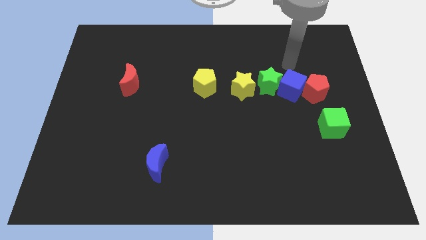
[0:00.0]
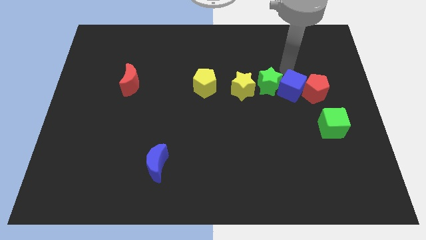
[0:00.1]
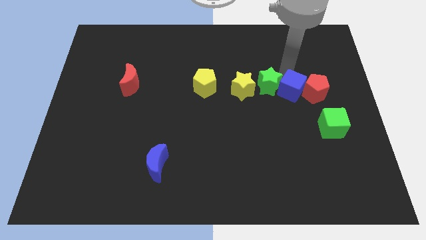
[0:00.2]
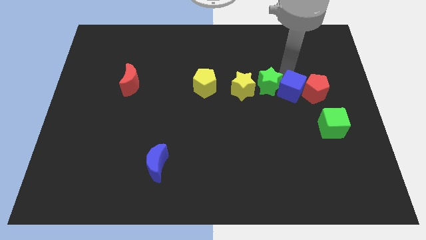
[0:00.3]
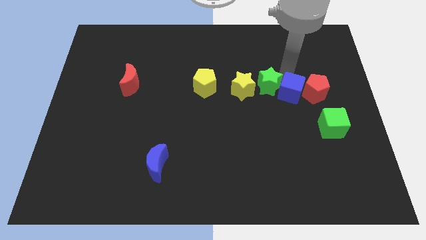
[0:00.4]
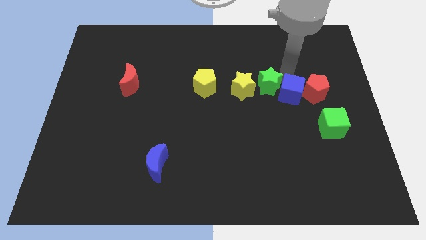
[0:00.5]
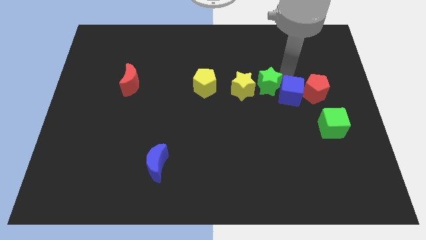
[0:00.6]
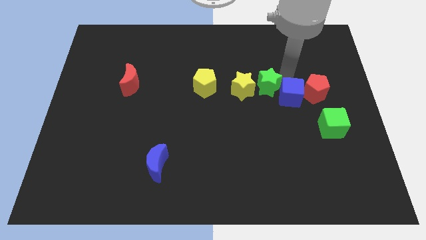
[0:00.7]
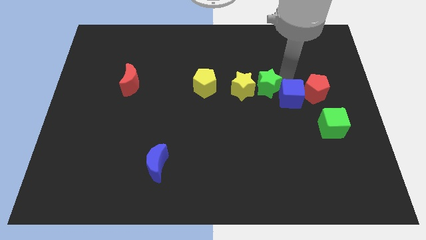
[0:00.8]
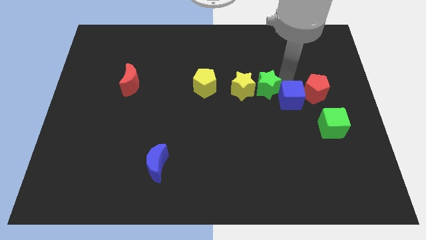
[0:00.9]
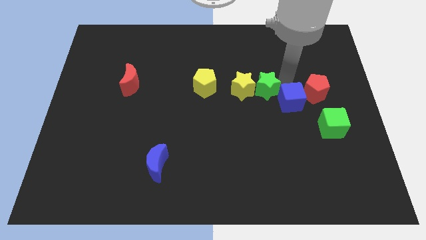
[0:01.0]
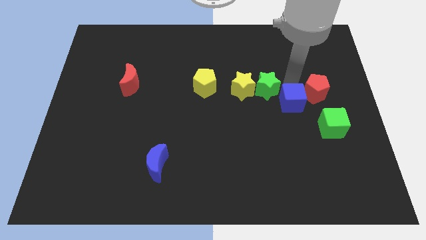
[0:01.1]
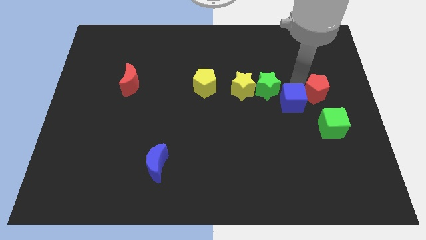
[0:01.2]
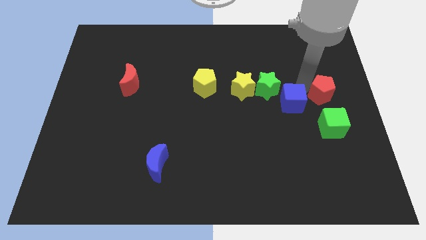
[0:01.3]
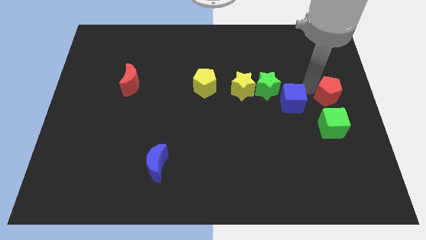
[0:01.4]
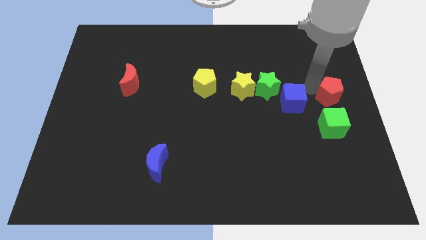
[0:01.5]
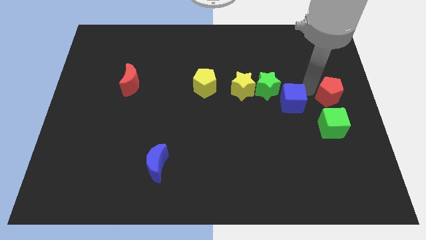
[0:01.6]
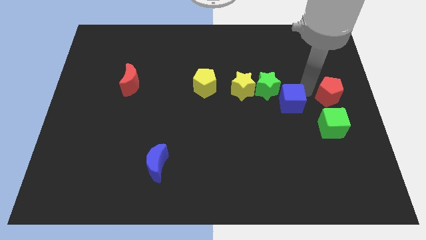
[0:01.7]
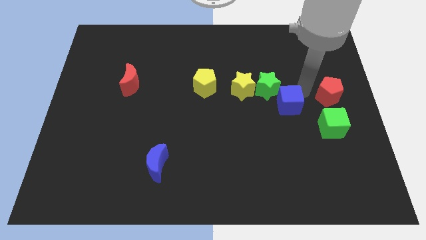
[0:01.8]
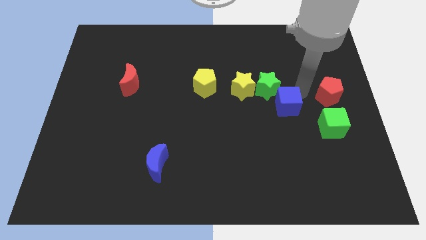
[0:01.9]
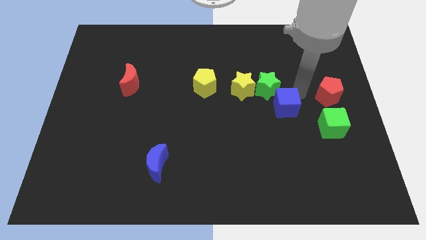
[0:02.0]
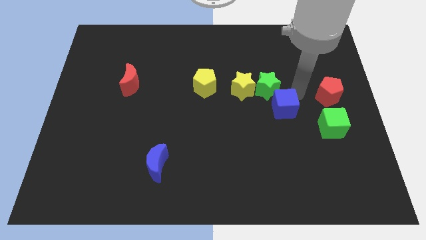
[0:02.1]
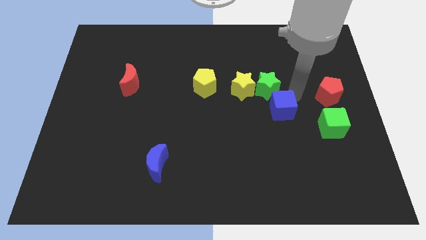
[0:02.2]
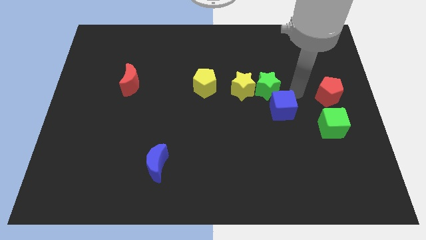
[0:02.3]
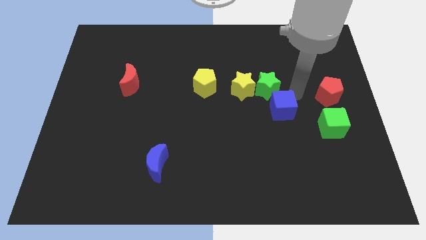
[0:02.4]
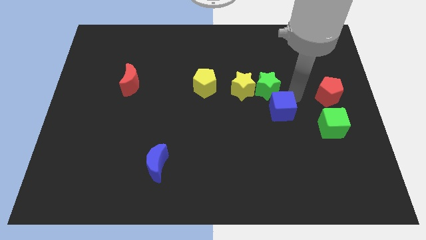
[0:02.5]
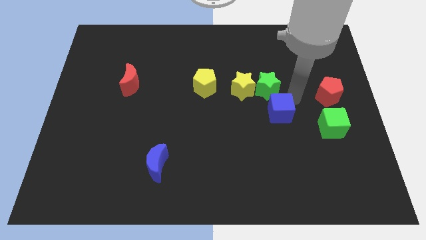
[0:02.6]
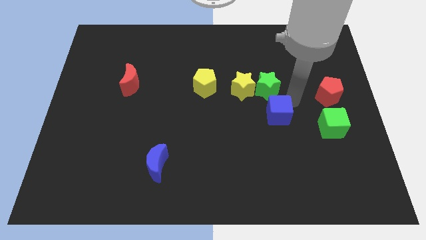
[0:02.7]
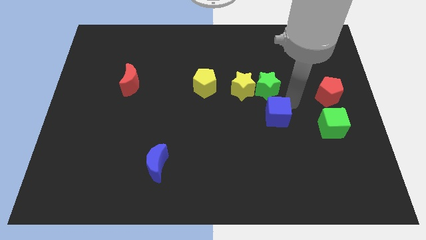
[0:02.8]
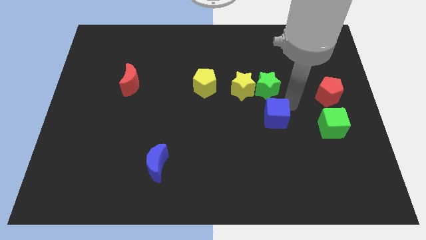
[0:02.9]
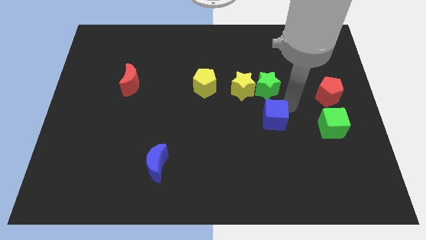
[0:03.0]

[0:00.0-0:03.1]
move the blue cube away from the green star and red pentagon

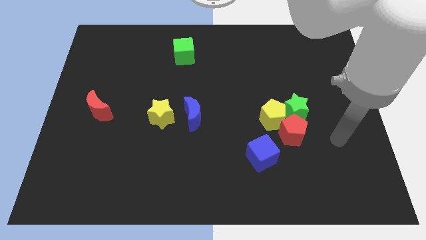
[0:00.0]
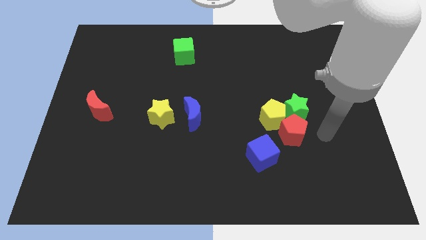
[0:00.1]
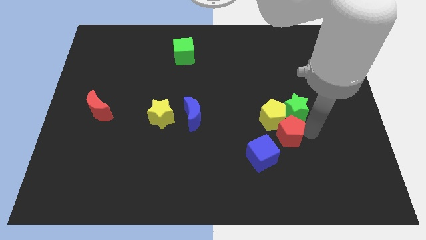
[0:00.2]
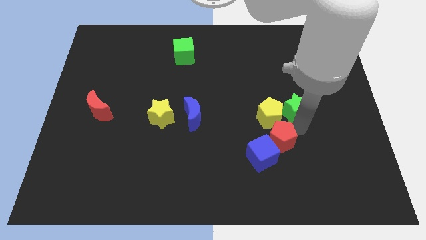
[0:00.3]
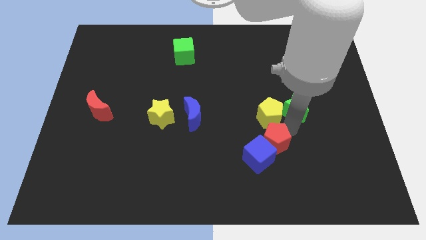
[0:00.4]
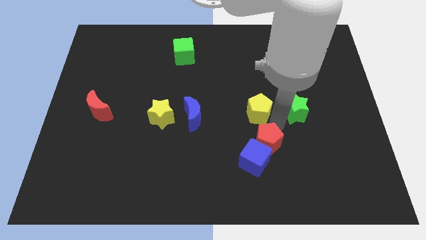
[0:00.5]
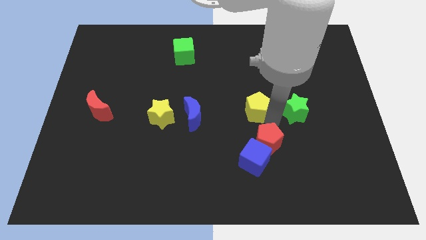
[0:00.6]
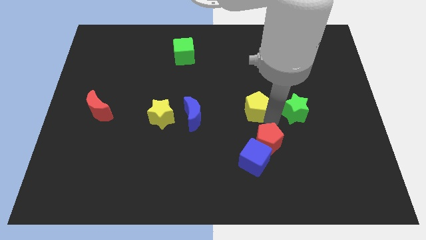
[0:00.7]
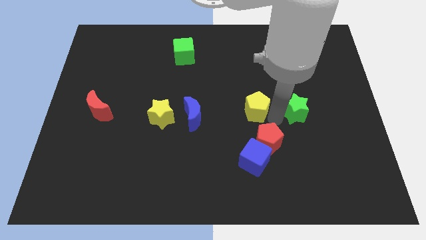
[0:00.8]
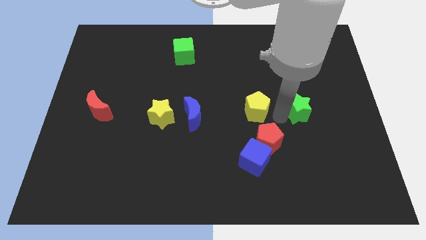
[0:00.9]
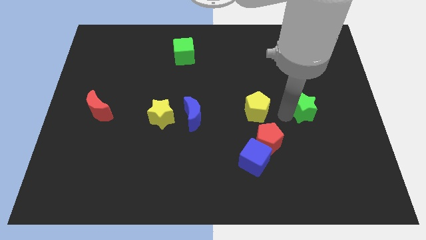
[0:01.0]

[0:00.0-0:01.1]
pull the green star apart from the yellow pentagon and red pentagon

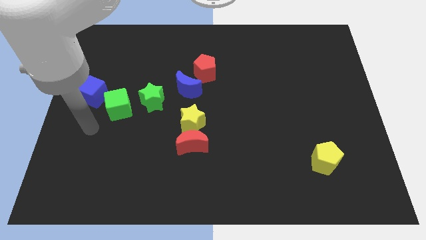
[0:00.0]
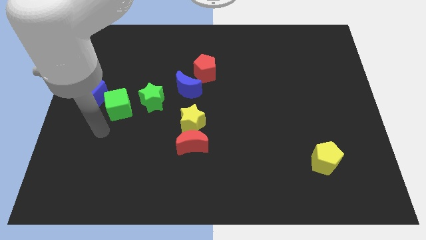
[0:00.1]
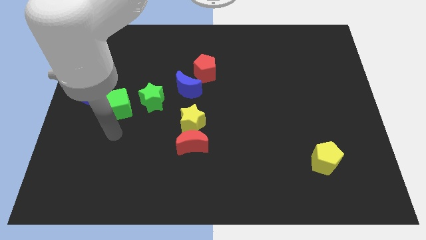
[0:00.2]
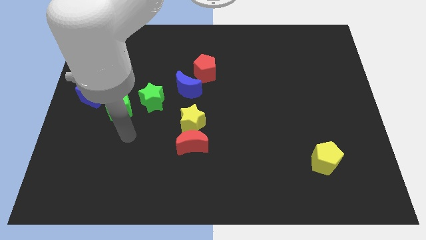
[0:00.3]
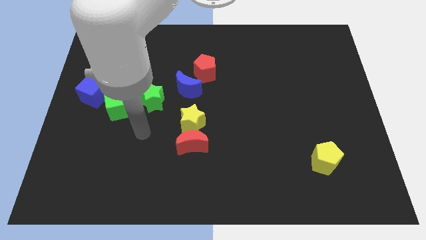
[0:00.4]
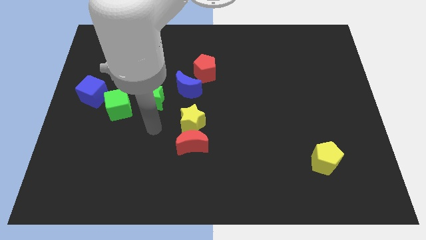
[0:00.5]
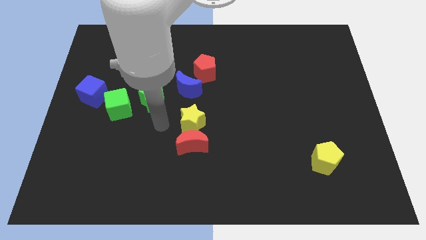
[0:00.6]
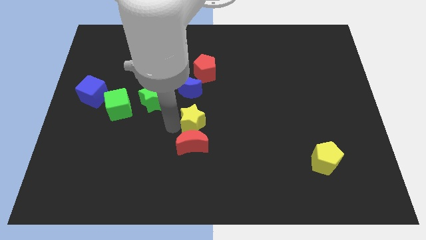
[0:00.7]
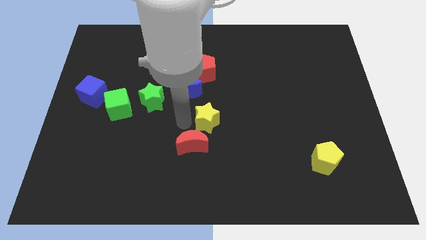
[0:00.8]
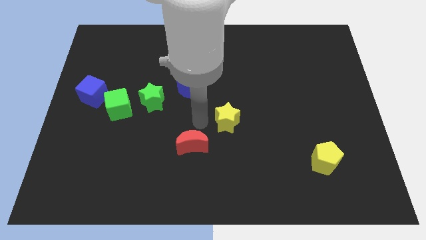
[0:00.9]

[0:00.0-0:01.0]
move the red moon away from the yellow star

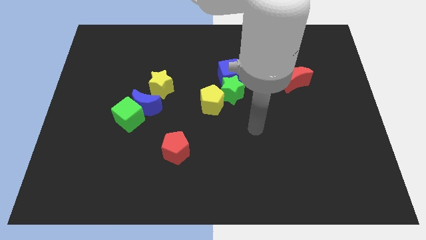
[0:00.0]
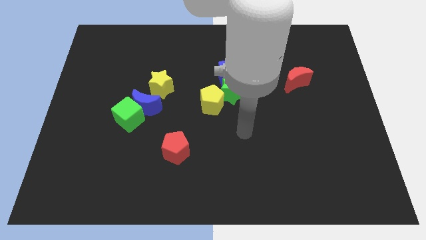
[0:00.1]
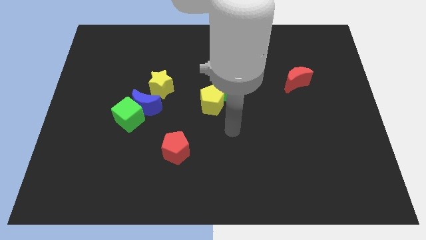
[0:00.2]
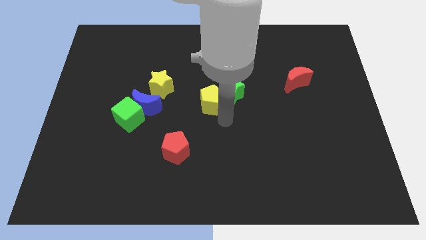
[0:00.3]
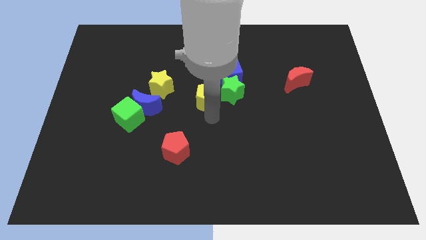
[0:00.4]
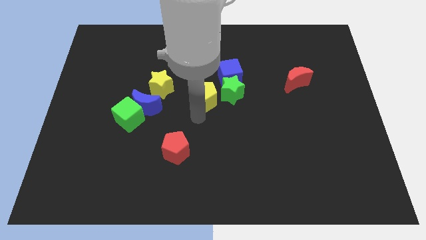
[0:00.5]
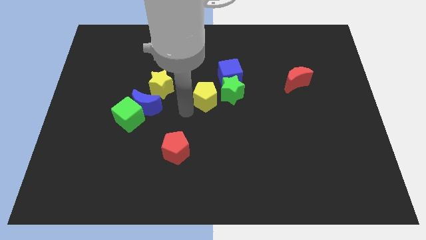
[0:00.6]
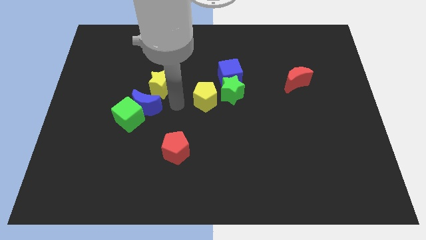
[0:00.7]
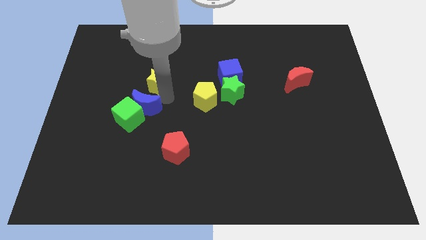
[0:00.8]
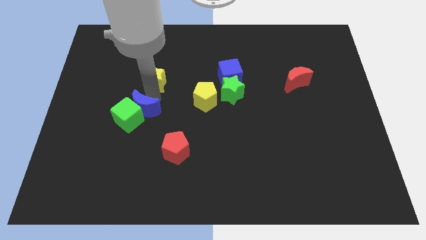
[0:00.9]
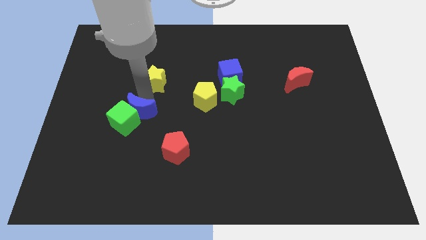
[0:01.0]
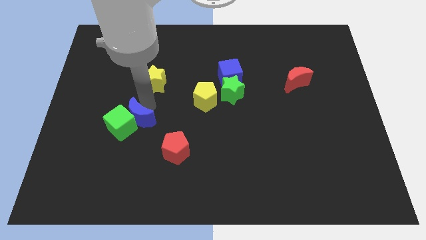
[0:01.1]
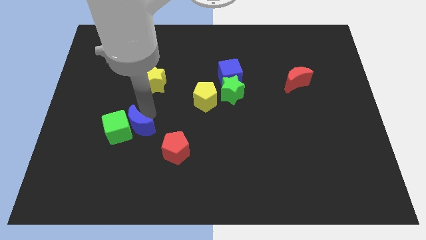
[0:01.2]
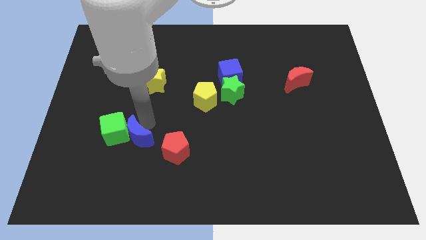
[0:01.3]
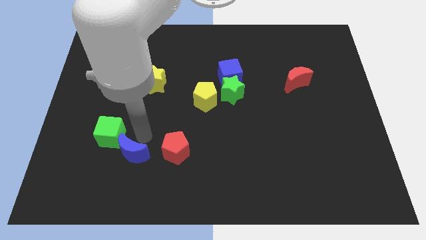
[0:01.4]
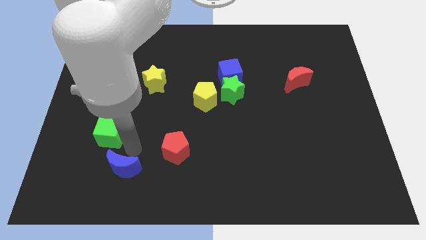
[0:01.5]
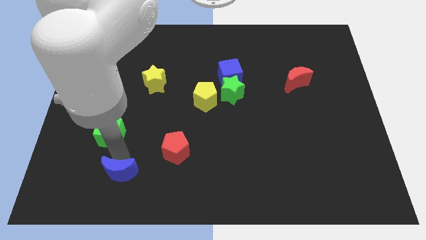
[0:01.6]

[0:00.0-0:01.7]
separate the green cube from the blue moon

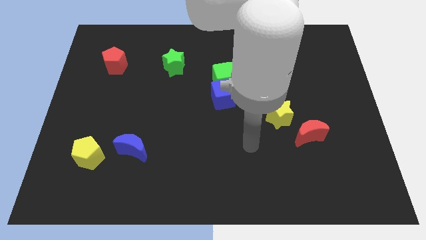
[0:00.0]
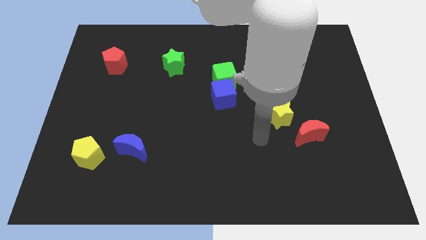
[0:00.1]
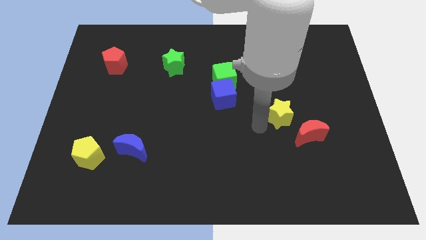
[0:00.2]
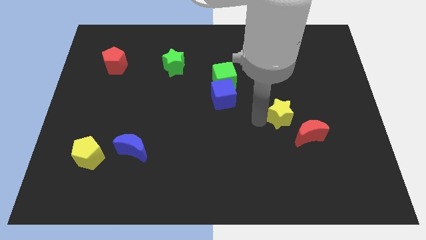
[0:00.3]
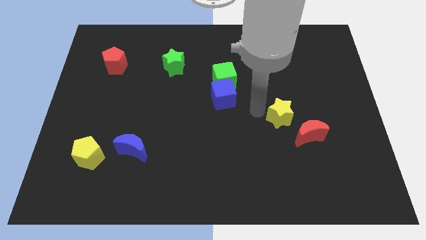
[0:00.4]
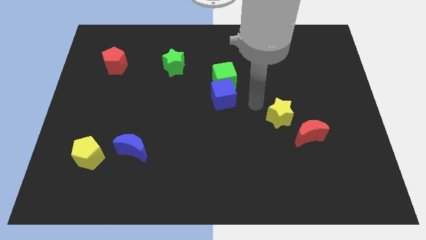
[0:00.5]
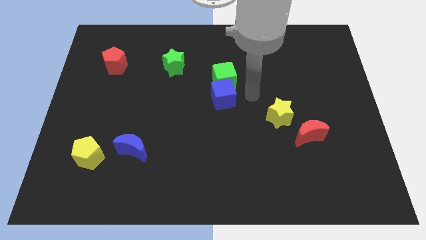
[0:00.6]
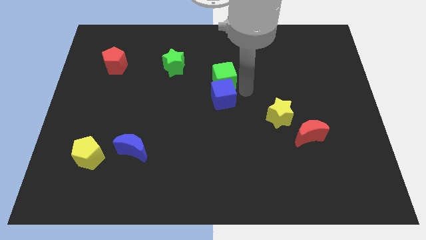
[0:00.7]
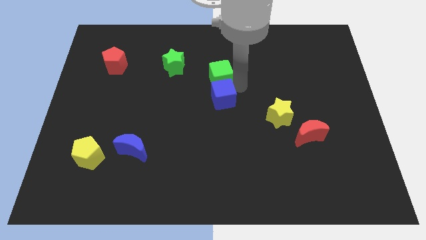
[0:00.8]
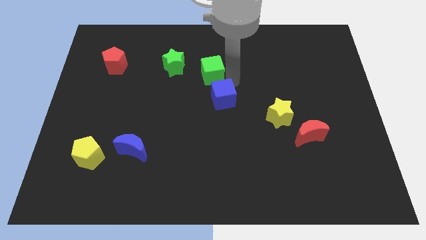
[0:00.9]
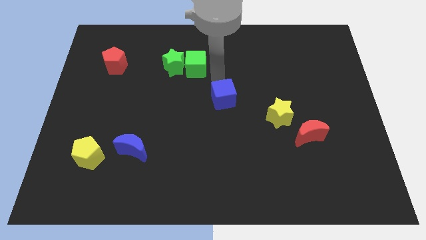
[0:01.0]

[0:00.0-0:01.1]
pull the blue cube apart from the green cube

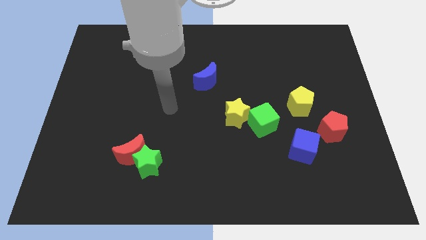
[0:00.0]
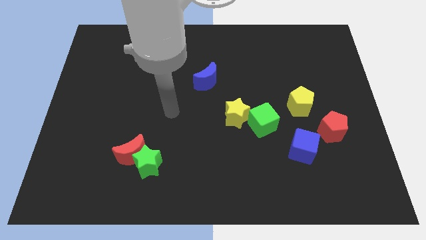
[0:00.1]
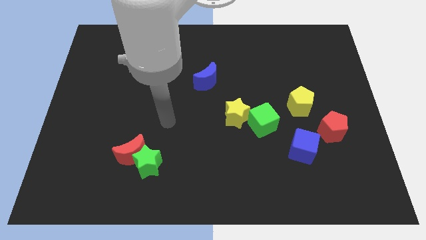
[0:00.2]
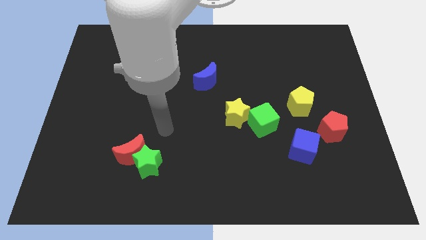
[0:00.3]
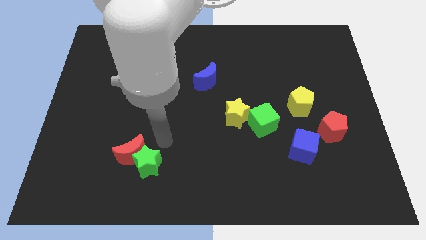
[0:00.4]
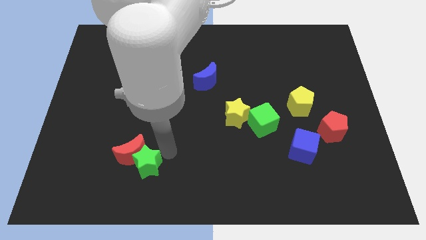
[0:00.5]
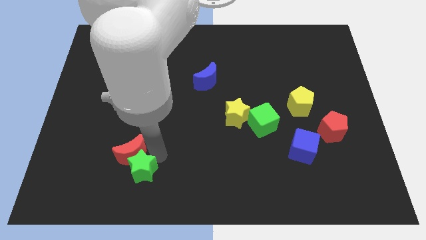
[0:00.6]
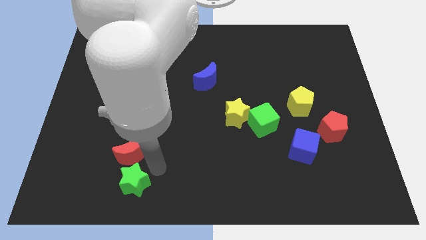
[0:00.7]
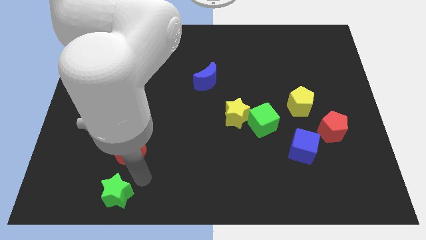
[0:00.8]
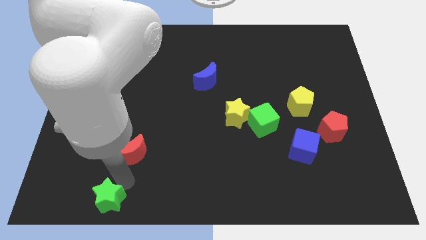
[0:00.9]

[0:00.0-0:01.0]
separate the red moon from the green star

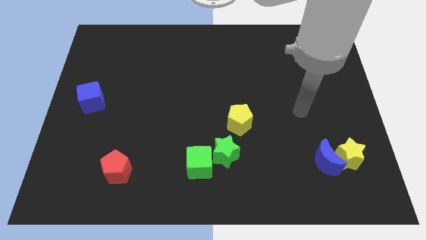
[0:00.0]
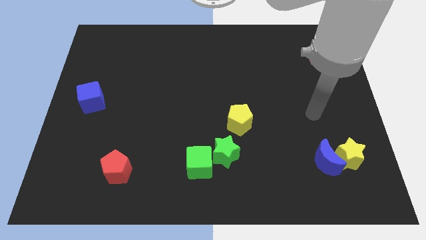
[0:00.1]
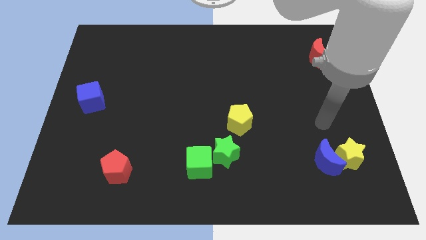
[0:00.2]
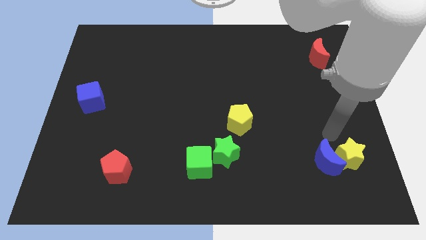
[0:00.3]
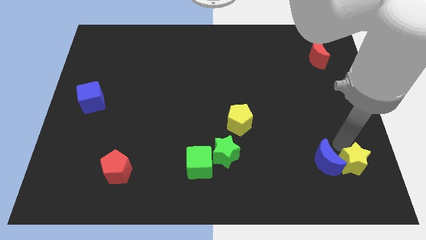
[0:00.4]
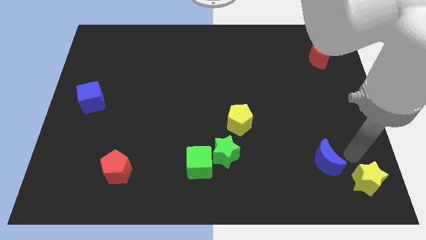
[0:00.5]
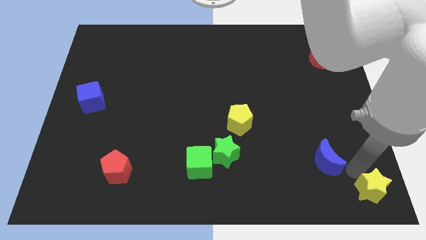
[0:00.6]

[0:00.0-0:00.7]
pull the blue moon apart from the yellow star
